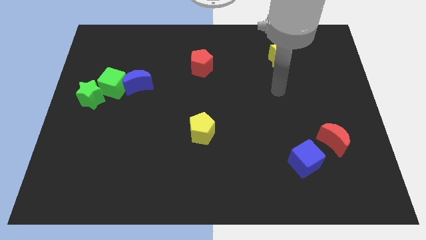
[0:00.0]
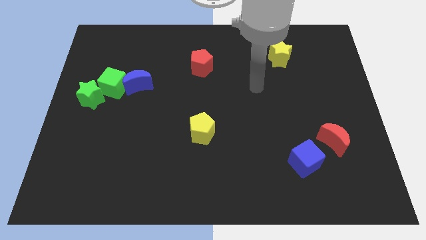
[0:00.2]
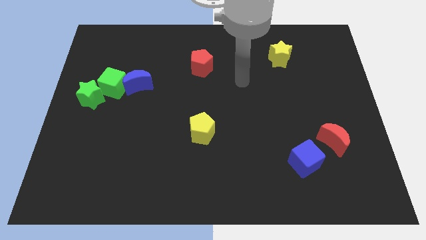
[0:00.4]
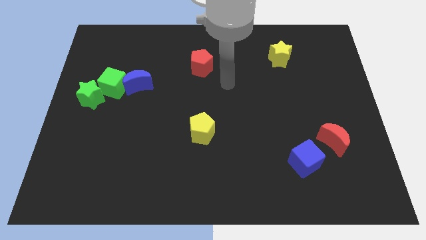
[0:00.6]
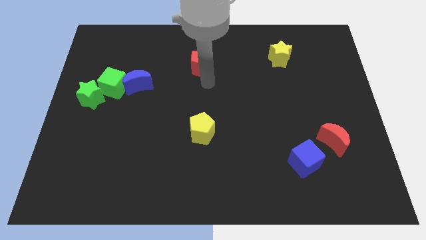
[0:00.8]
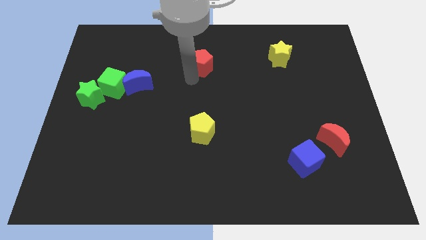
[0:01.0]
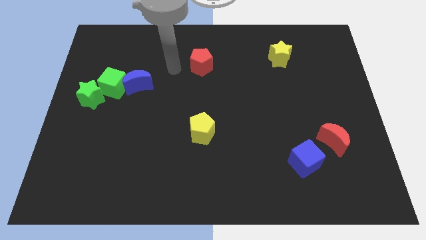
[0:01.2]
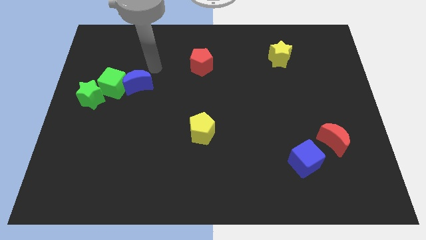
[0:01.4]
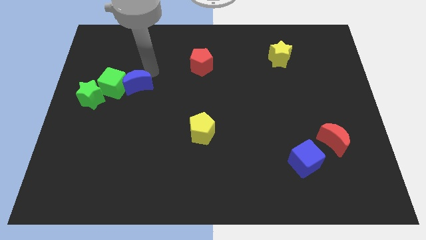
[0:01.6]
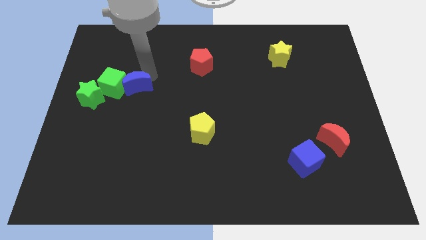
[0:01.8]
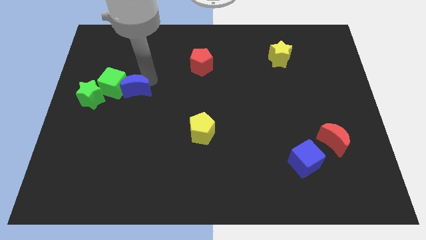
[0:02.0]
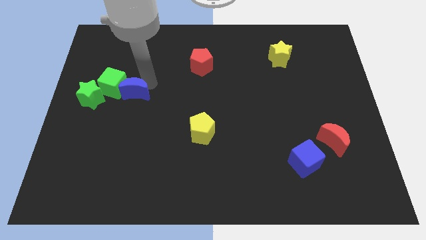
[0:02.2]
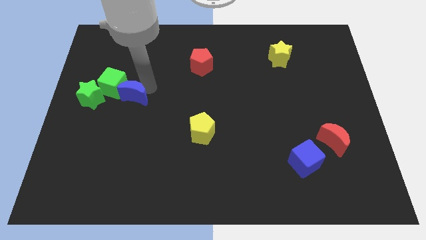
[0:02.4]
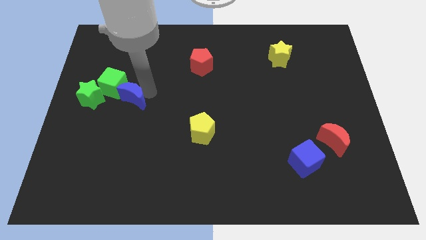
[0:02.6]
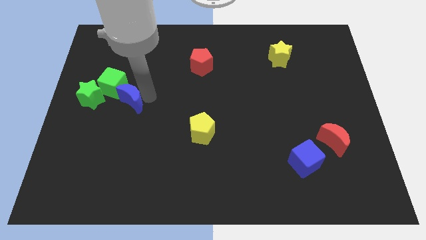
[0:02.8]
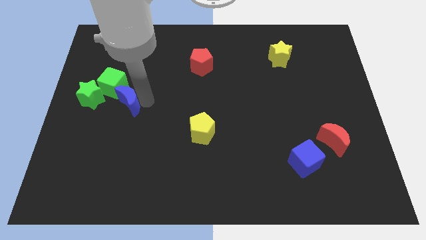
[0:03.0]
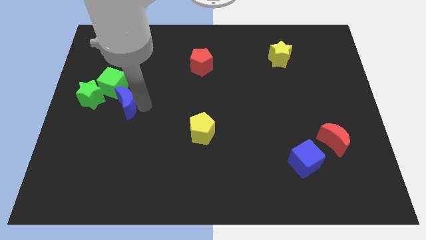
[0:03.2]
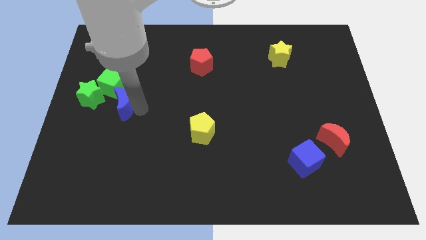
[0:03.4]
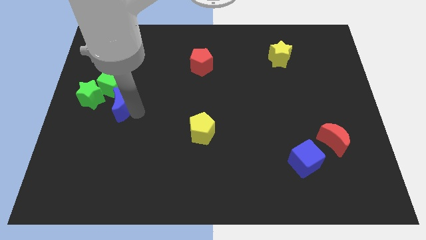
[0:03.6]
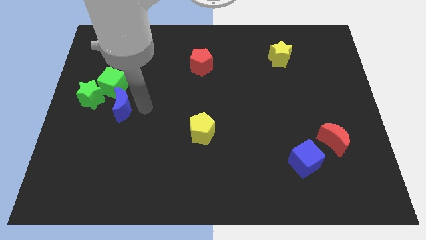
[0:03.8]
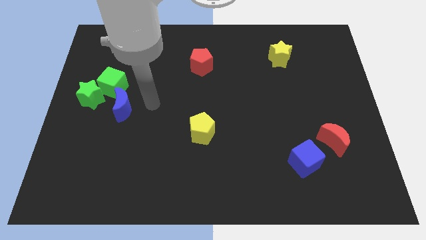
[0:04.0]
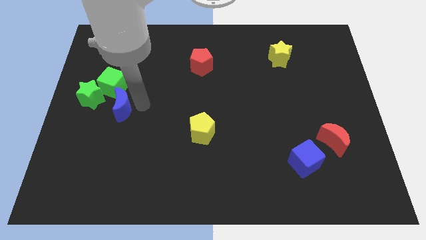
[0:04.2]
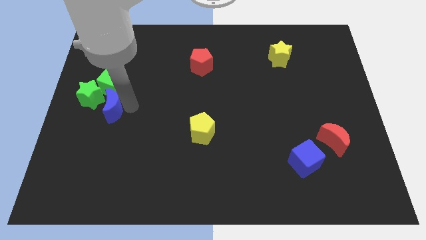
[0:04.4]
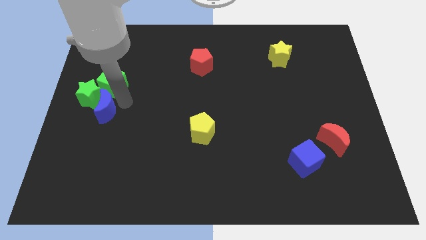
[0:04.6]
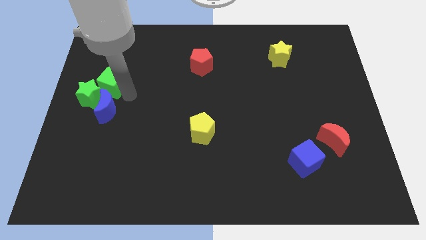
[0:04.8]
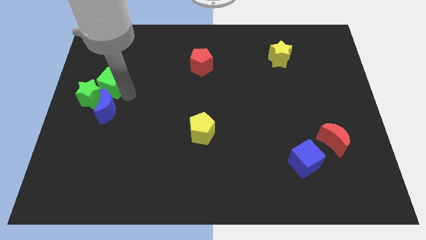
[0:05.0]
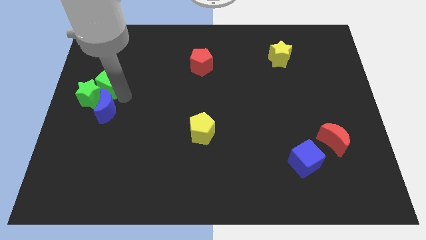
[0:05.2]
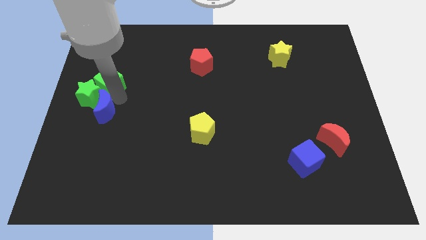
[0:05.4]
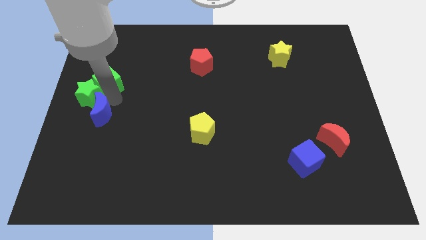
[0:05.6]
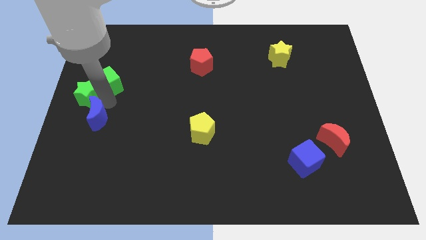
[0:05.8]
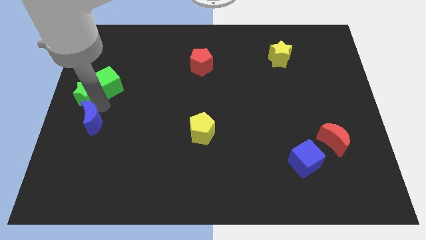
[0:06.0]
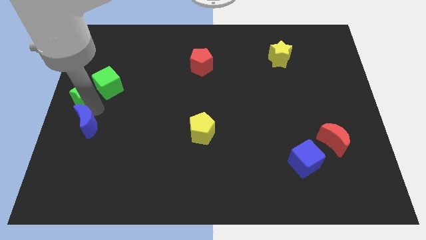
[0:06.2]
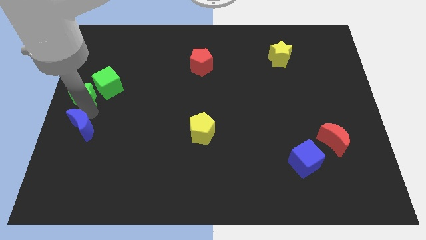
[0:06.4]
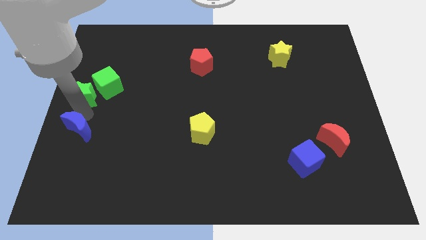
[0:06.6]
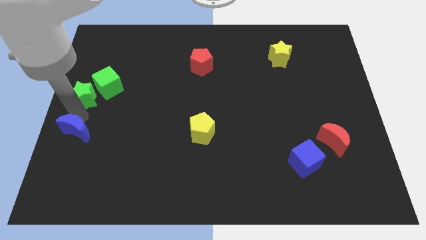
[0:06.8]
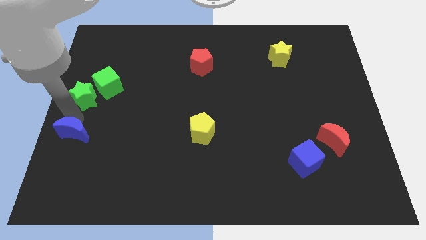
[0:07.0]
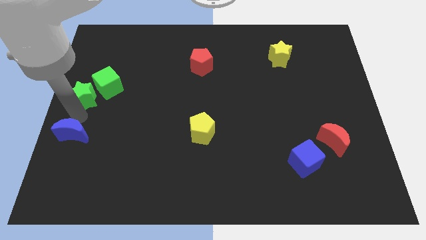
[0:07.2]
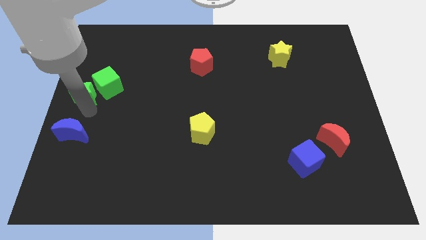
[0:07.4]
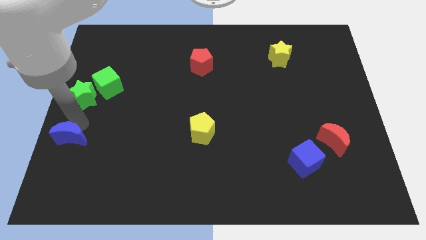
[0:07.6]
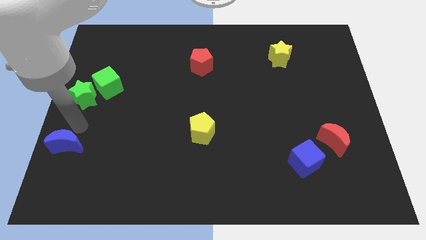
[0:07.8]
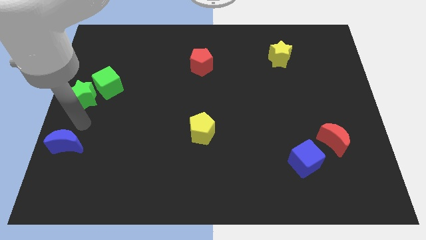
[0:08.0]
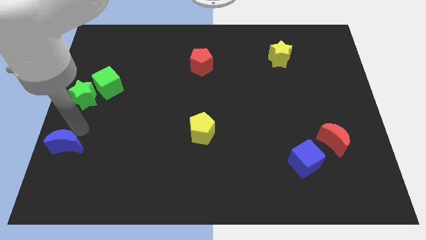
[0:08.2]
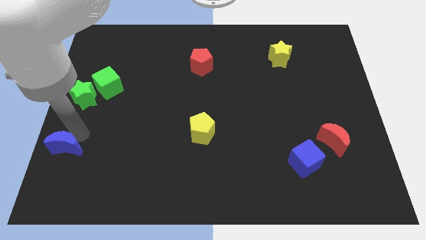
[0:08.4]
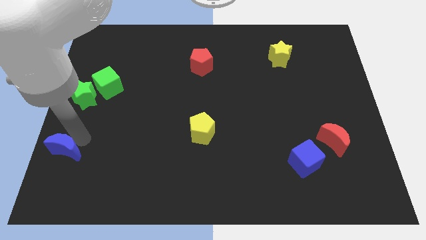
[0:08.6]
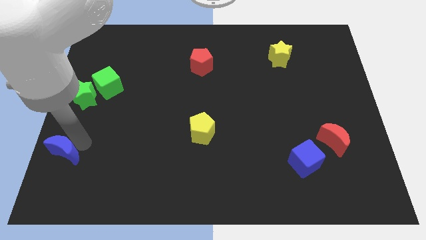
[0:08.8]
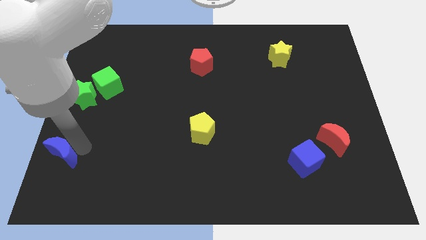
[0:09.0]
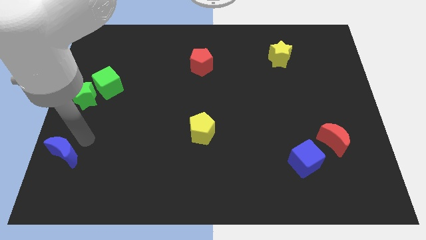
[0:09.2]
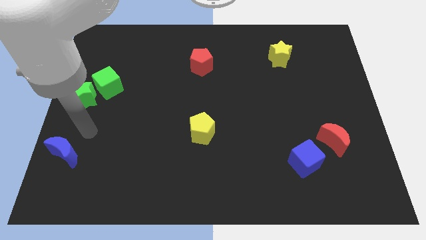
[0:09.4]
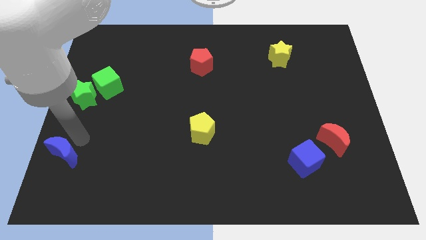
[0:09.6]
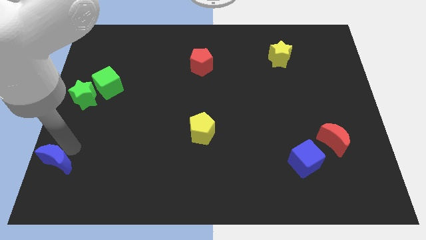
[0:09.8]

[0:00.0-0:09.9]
put the blue moon to the lower left corner

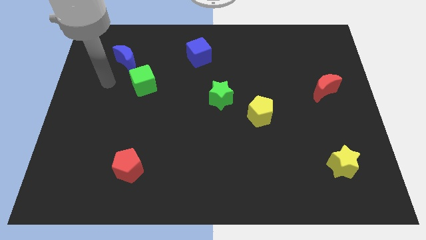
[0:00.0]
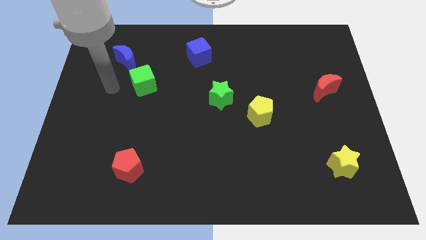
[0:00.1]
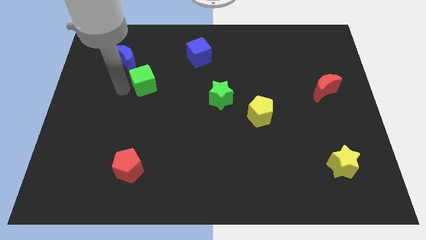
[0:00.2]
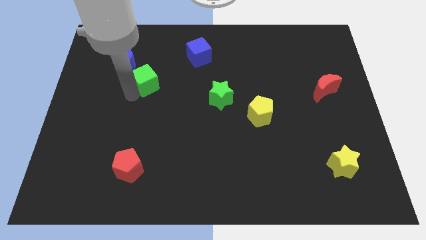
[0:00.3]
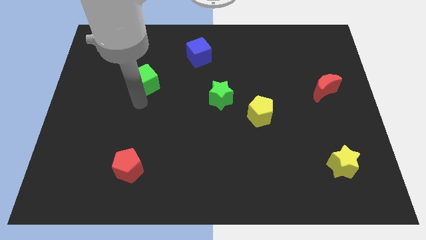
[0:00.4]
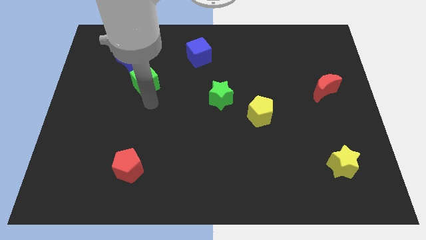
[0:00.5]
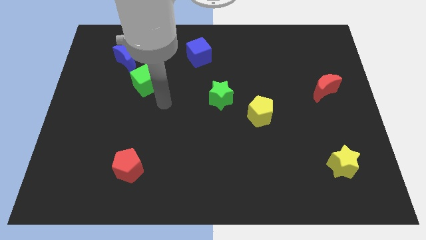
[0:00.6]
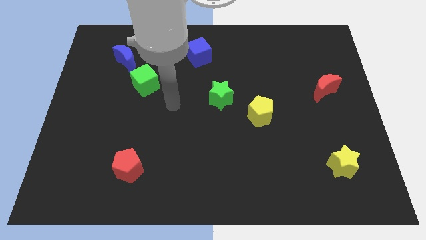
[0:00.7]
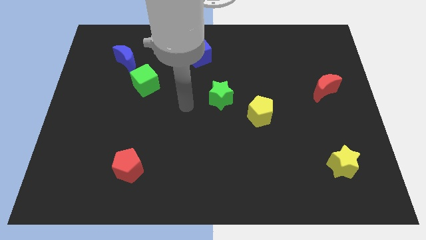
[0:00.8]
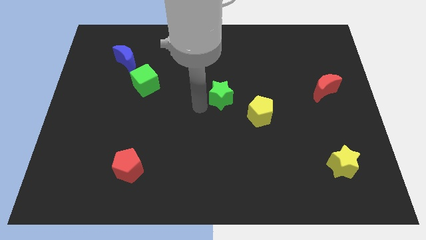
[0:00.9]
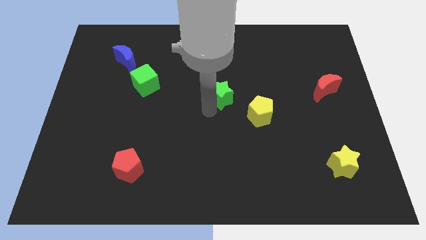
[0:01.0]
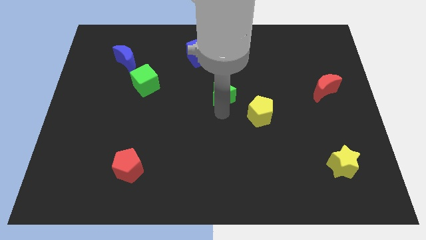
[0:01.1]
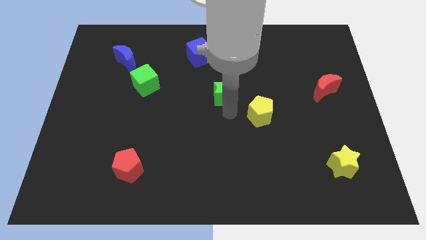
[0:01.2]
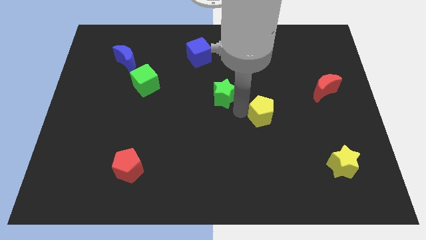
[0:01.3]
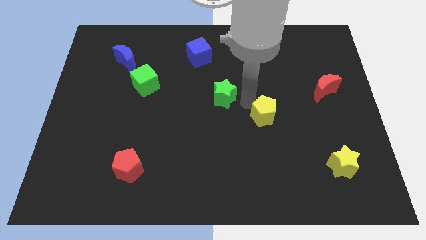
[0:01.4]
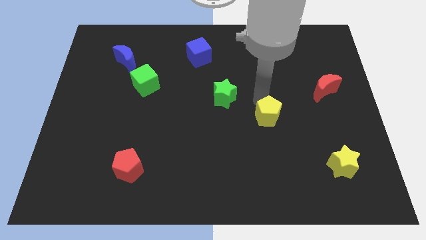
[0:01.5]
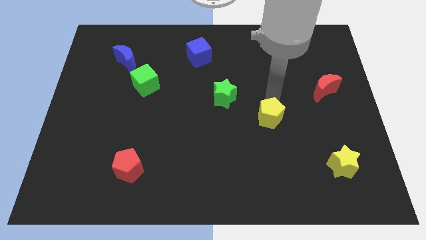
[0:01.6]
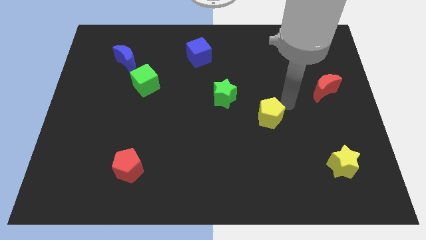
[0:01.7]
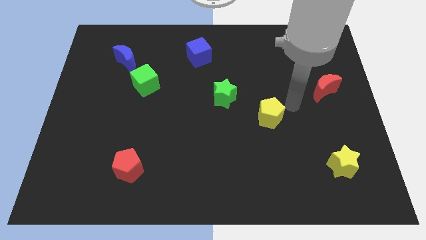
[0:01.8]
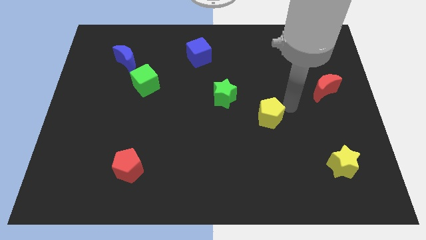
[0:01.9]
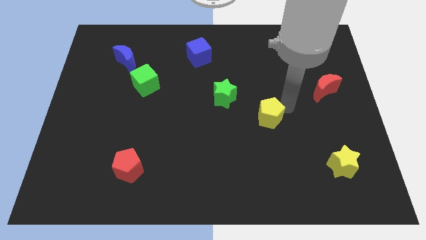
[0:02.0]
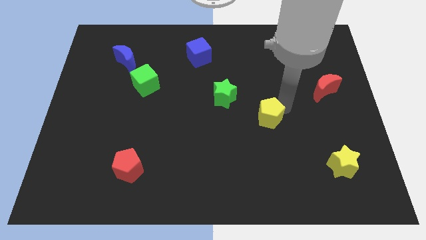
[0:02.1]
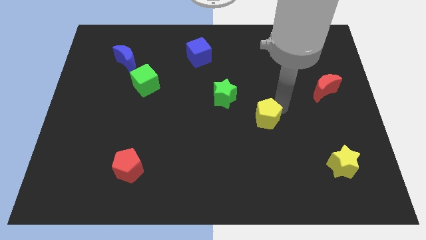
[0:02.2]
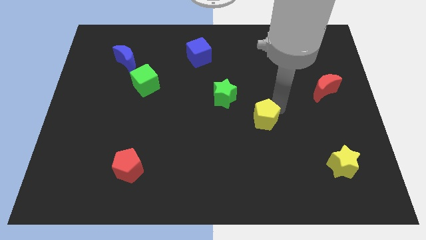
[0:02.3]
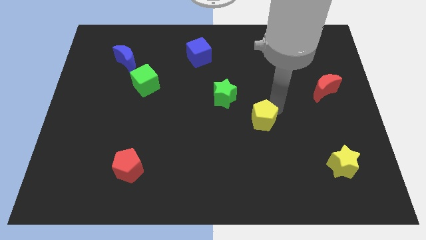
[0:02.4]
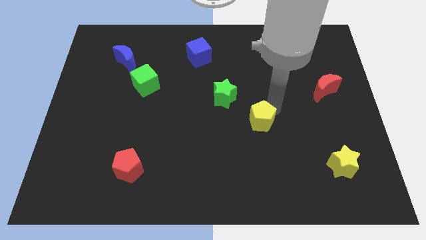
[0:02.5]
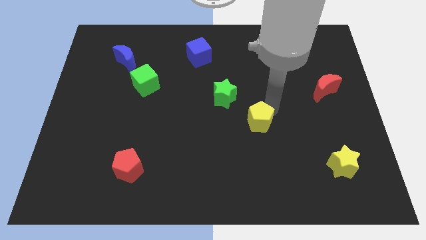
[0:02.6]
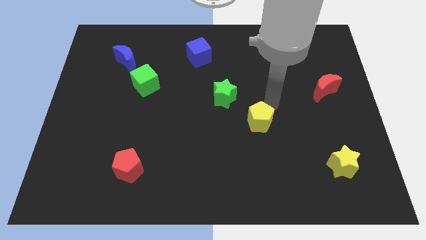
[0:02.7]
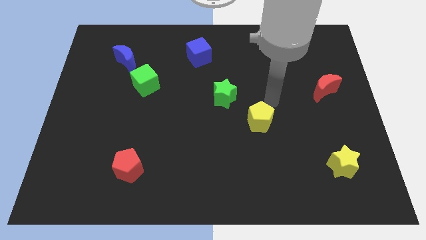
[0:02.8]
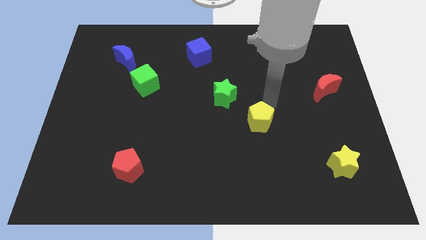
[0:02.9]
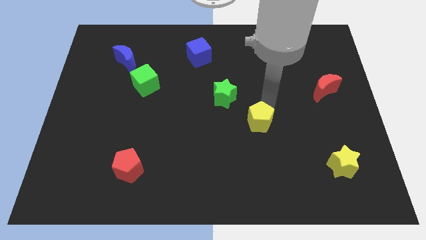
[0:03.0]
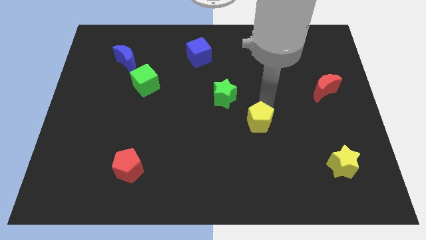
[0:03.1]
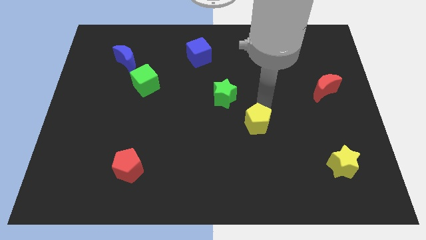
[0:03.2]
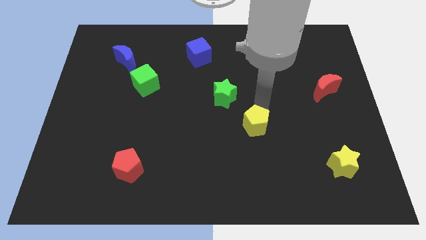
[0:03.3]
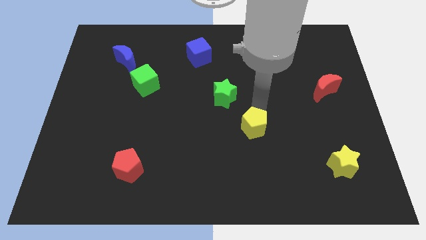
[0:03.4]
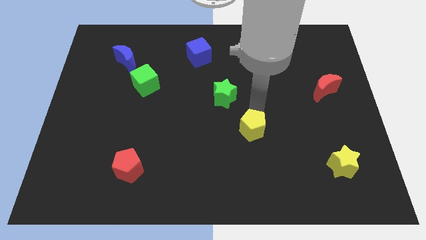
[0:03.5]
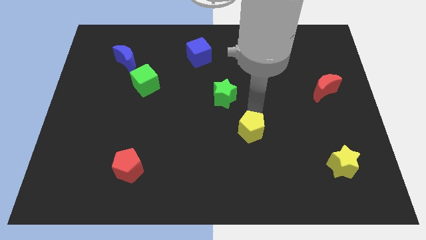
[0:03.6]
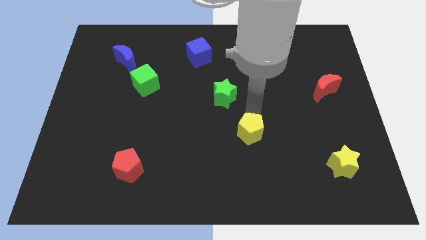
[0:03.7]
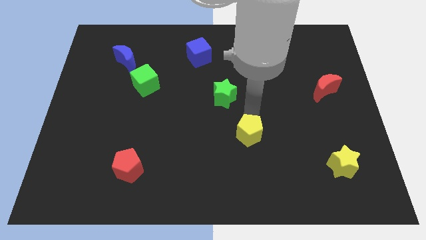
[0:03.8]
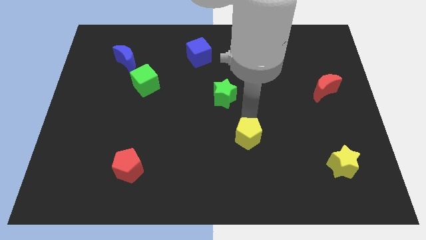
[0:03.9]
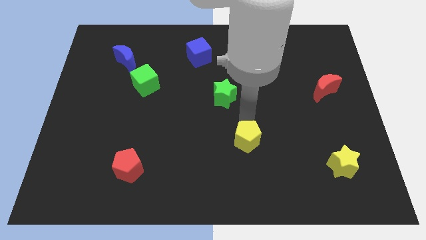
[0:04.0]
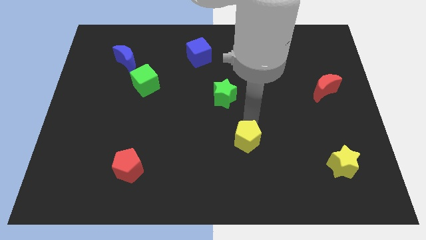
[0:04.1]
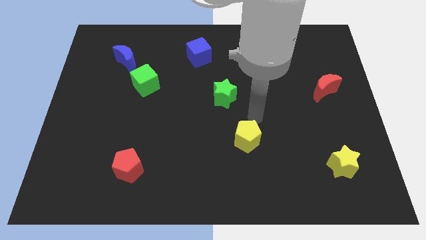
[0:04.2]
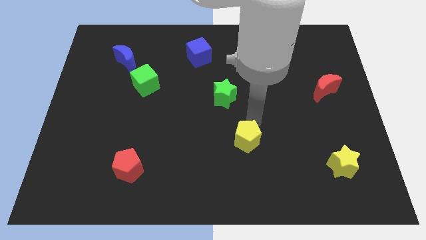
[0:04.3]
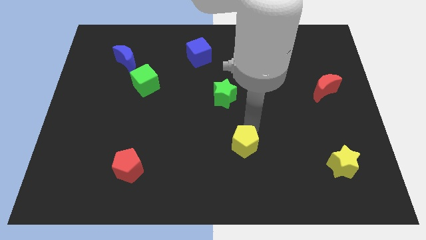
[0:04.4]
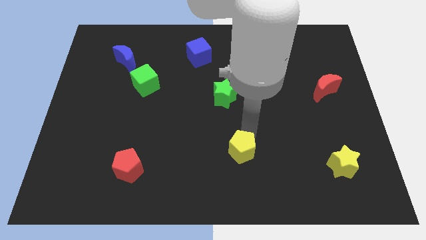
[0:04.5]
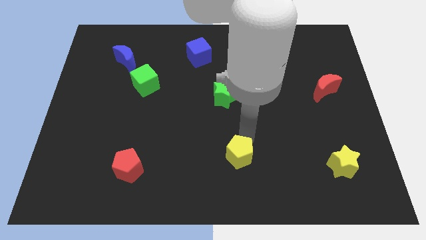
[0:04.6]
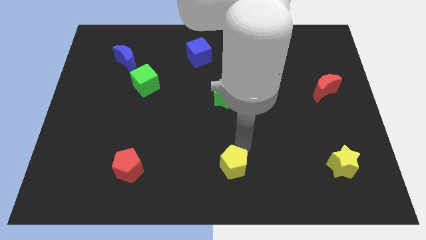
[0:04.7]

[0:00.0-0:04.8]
push the yellow pentagon to the bottom
